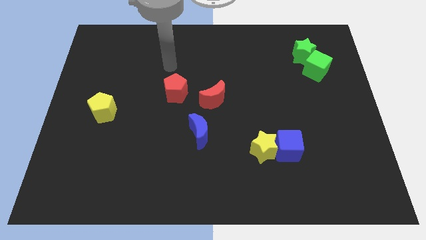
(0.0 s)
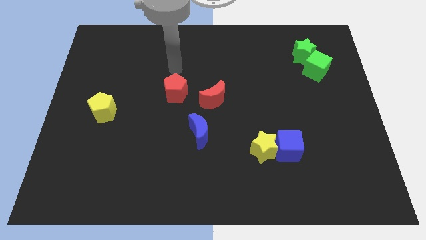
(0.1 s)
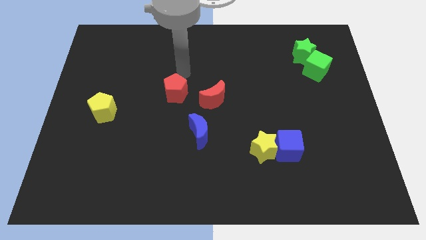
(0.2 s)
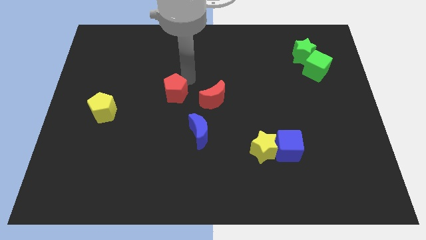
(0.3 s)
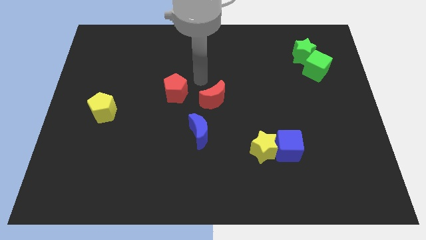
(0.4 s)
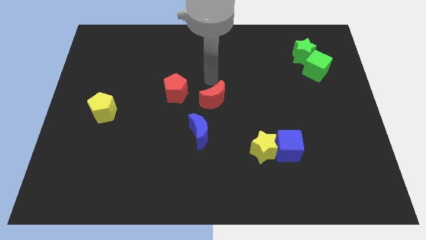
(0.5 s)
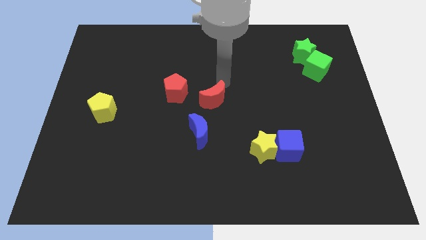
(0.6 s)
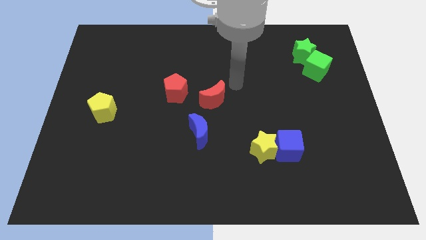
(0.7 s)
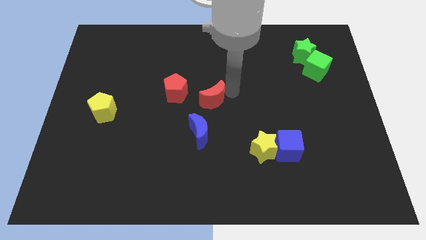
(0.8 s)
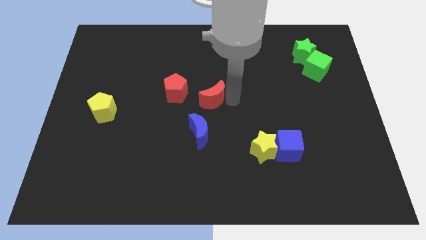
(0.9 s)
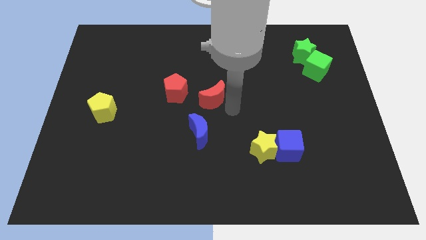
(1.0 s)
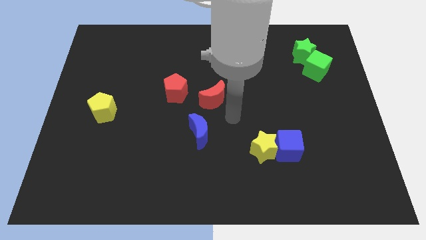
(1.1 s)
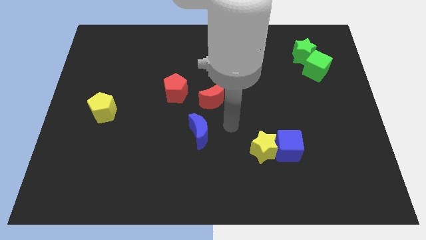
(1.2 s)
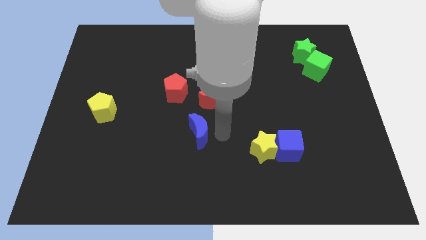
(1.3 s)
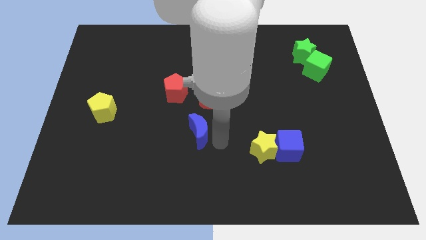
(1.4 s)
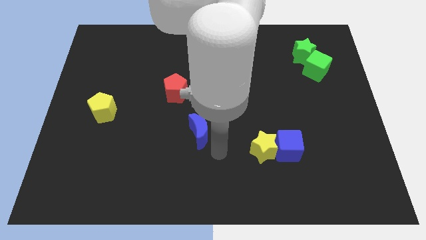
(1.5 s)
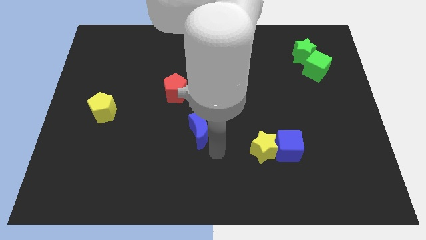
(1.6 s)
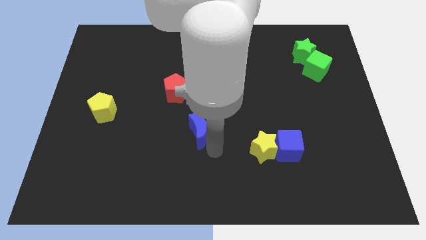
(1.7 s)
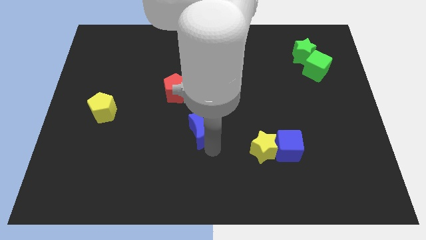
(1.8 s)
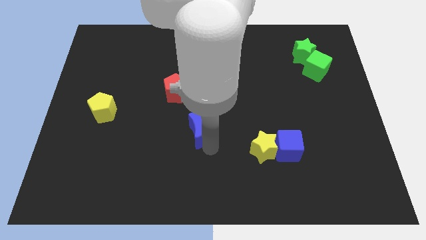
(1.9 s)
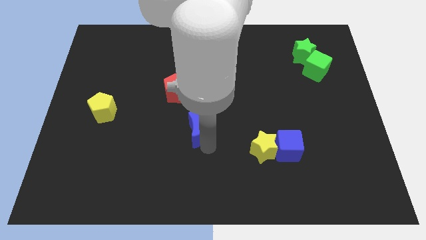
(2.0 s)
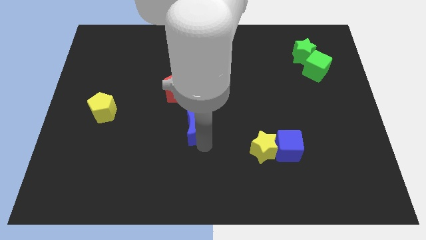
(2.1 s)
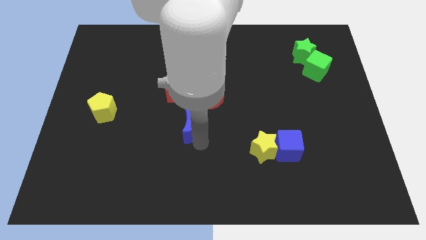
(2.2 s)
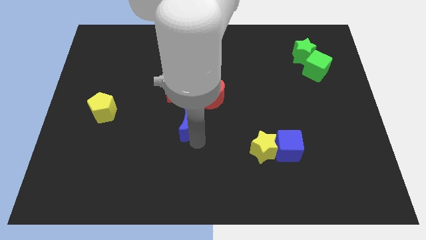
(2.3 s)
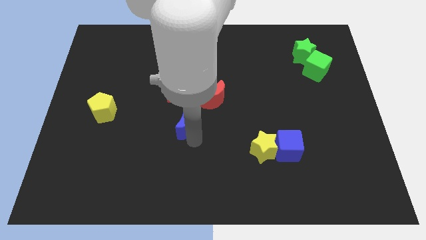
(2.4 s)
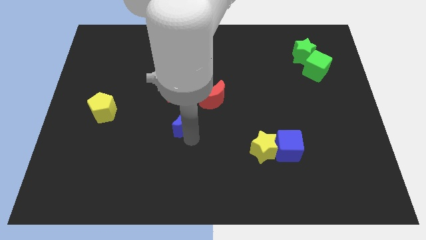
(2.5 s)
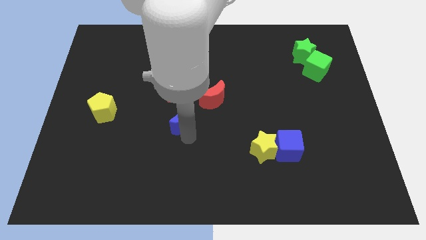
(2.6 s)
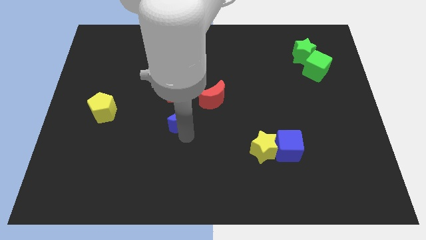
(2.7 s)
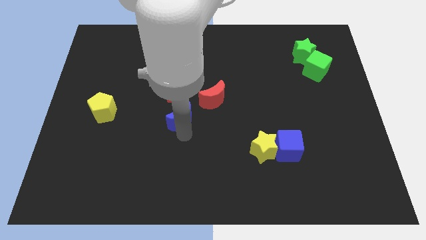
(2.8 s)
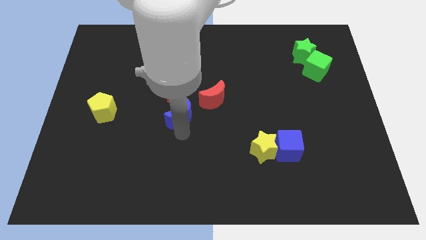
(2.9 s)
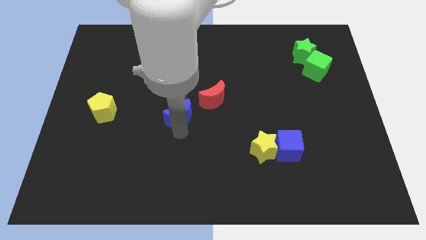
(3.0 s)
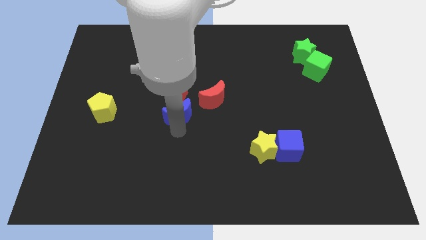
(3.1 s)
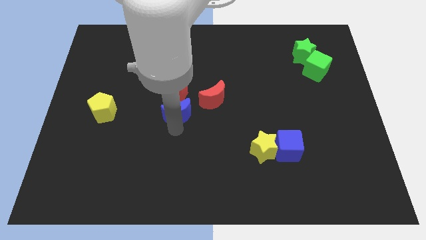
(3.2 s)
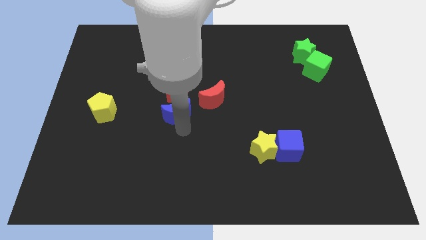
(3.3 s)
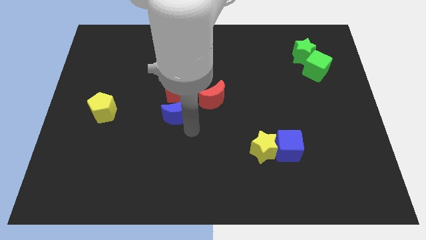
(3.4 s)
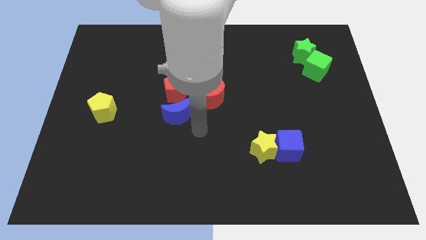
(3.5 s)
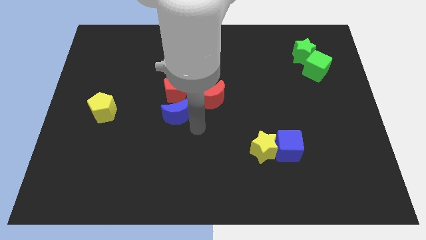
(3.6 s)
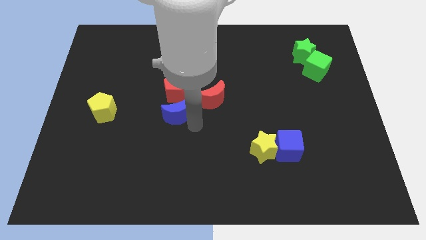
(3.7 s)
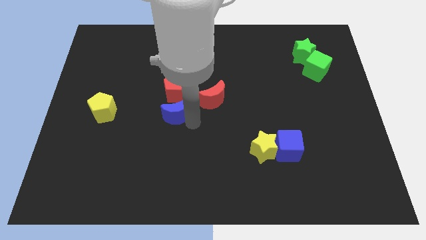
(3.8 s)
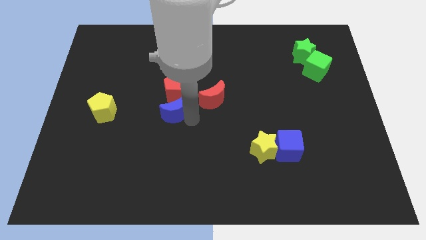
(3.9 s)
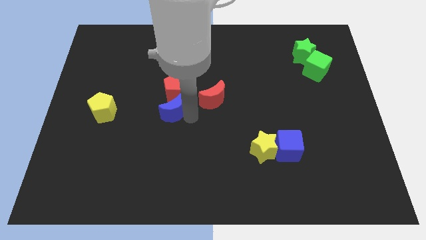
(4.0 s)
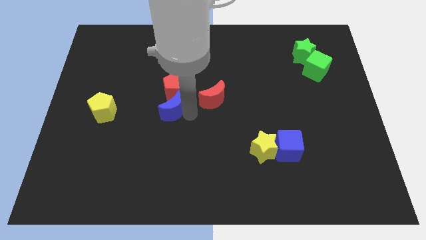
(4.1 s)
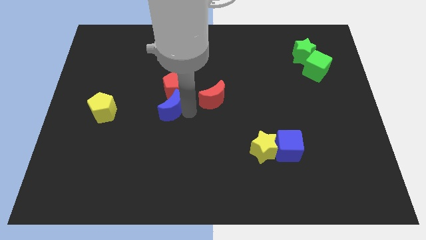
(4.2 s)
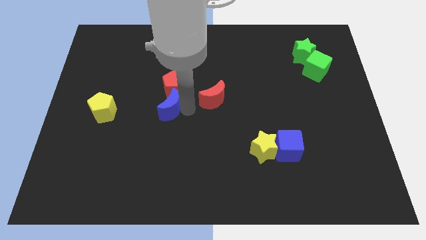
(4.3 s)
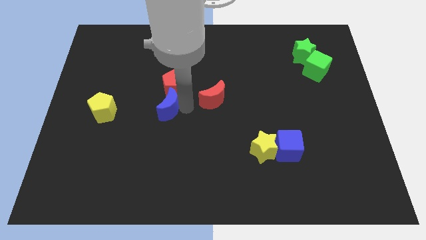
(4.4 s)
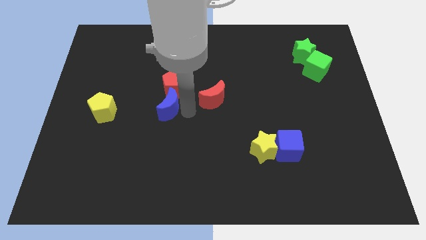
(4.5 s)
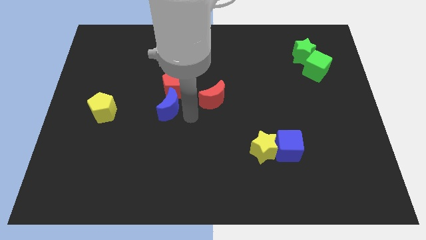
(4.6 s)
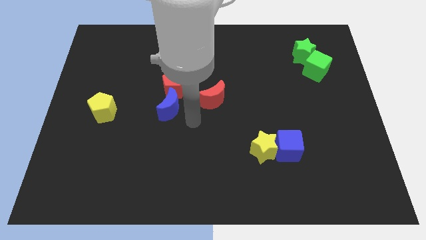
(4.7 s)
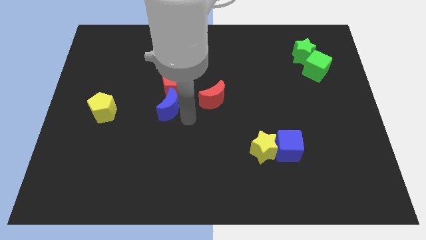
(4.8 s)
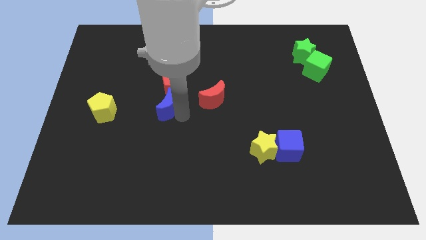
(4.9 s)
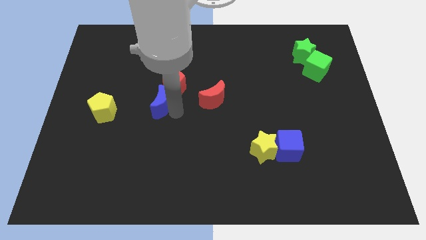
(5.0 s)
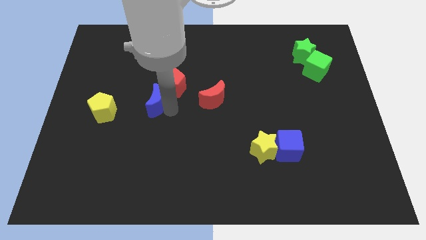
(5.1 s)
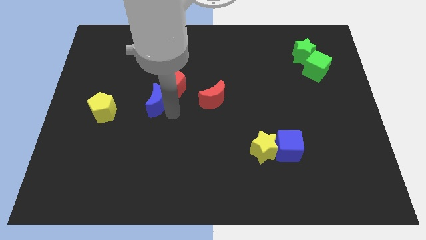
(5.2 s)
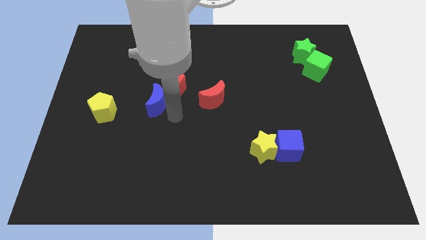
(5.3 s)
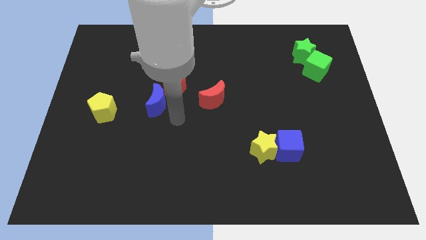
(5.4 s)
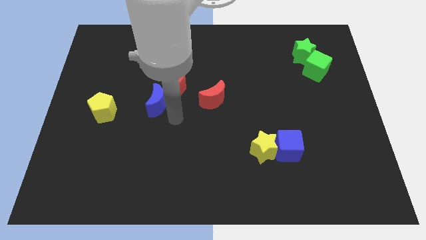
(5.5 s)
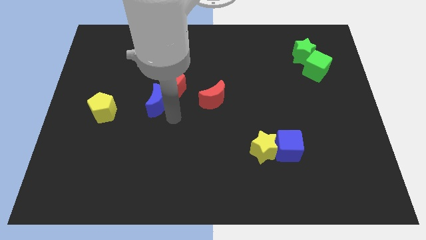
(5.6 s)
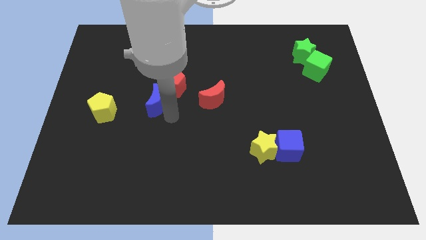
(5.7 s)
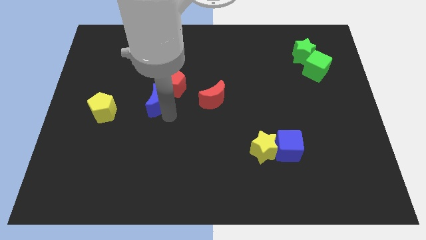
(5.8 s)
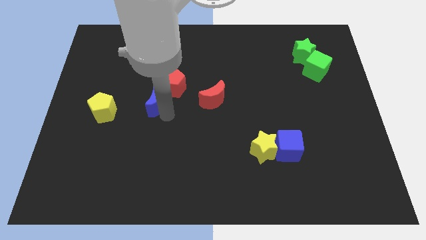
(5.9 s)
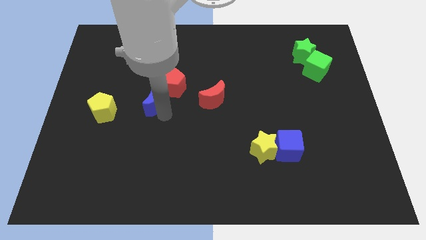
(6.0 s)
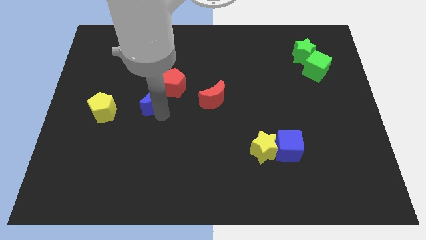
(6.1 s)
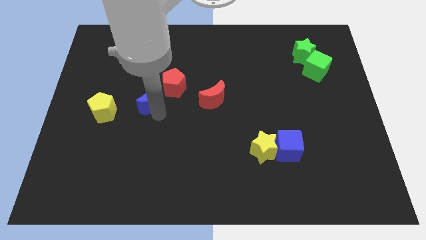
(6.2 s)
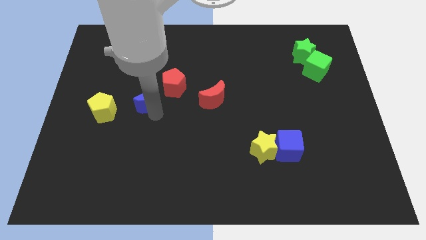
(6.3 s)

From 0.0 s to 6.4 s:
slide the blue moon to the left side of the red pentagon

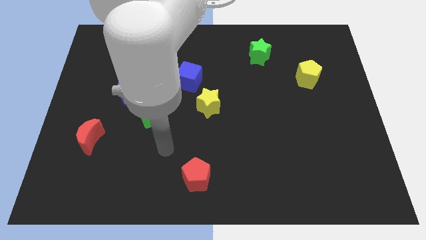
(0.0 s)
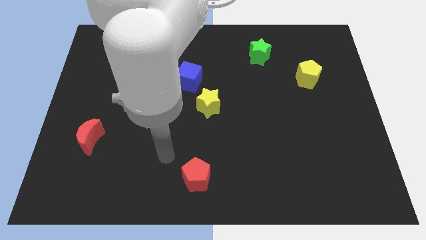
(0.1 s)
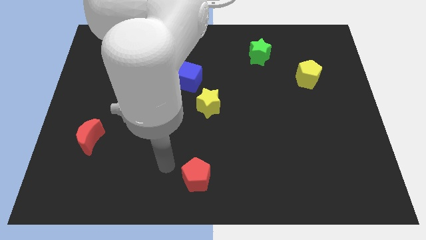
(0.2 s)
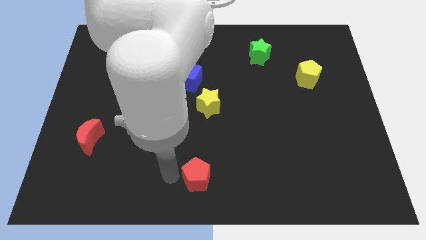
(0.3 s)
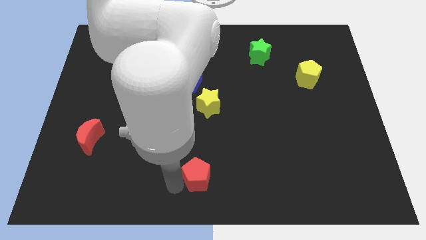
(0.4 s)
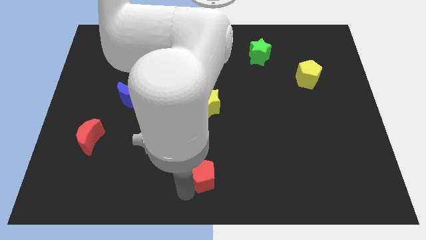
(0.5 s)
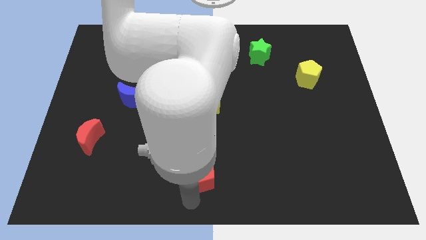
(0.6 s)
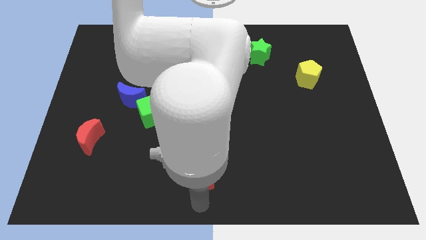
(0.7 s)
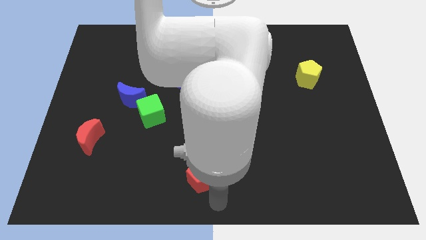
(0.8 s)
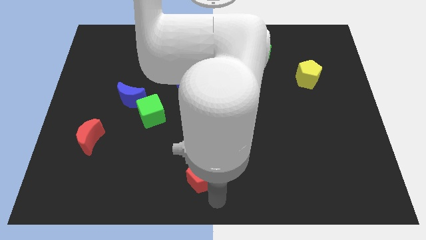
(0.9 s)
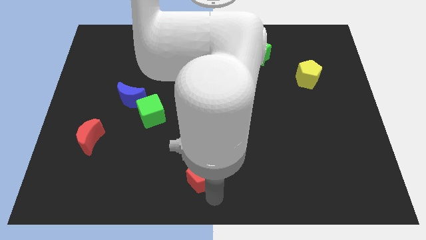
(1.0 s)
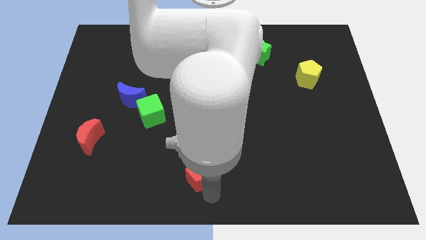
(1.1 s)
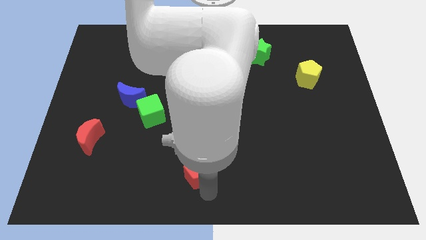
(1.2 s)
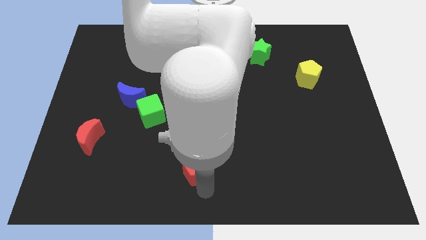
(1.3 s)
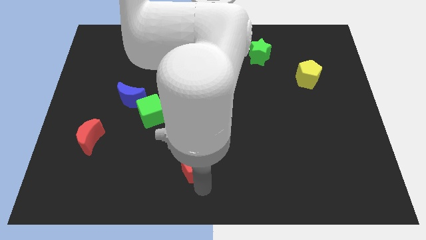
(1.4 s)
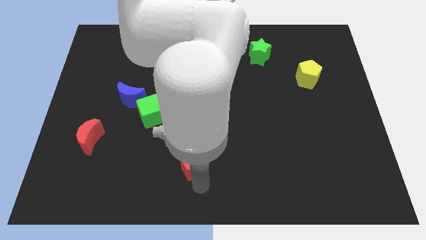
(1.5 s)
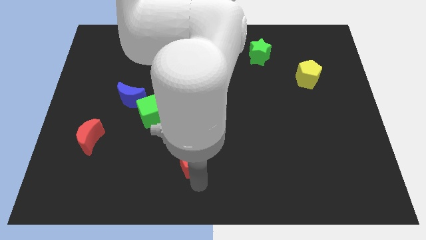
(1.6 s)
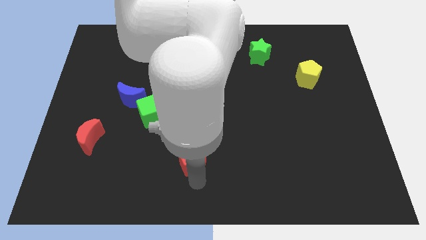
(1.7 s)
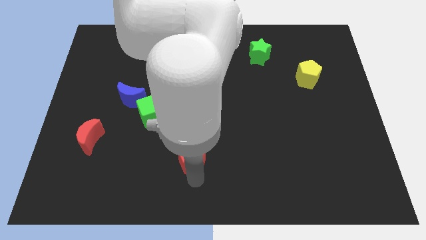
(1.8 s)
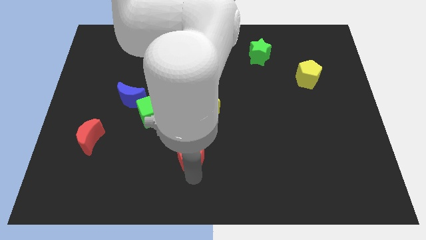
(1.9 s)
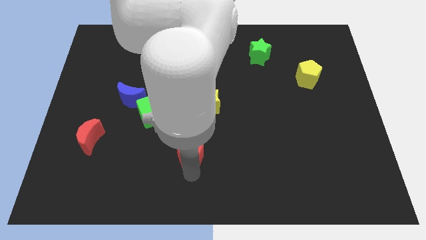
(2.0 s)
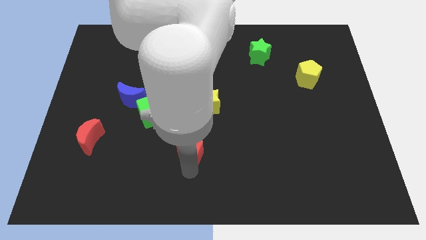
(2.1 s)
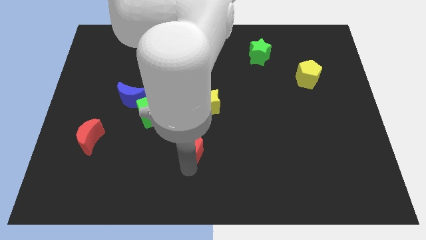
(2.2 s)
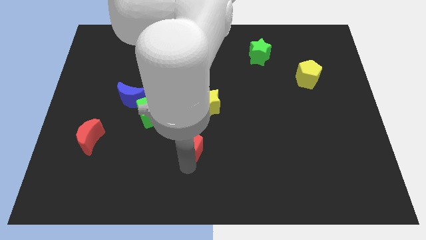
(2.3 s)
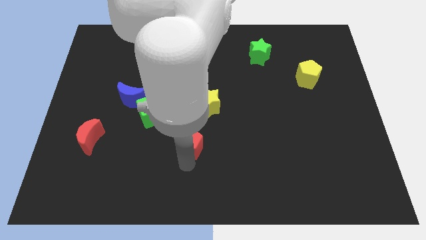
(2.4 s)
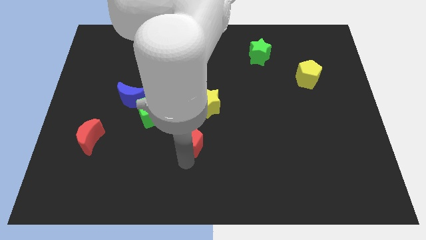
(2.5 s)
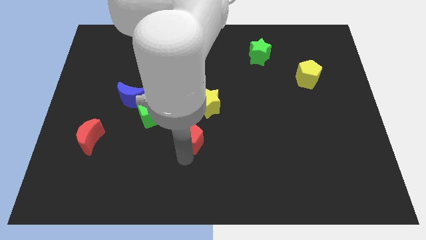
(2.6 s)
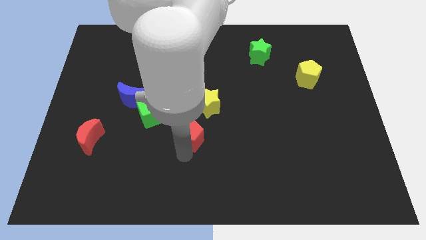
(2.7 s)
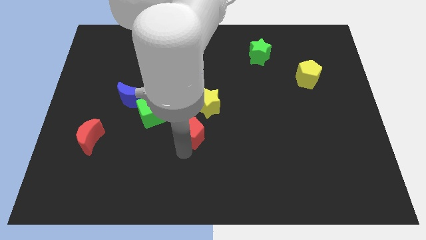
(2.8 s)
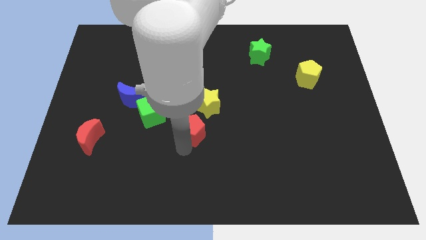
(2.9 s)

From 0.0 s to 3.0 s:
slide the red pentagon to the bottom side of the blue cube
